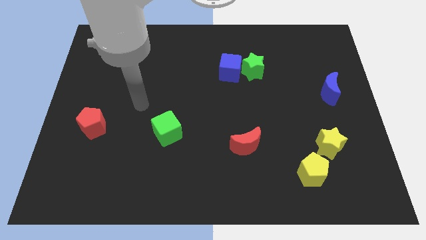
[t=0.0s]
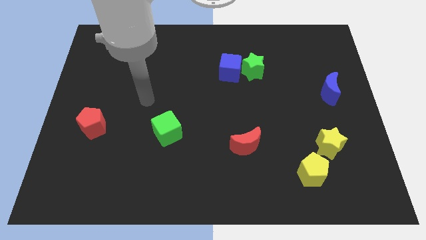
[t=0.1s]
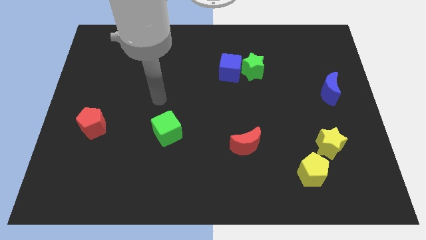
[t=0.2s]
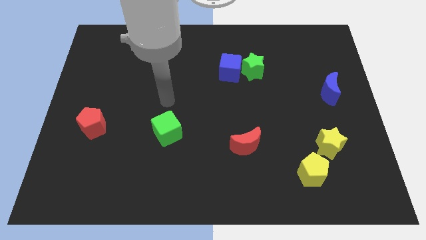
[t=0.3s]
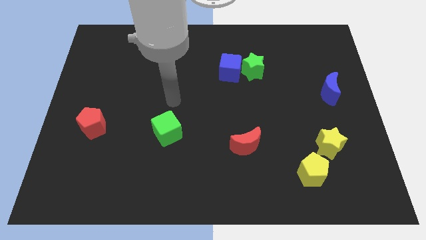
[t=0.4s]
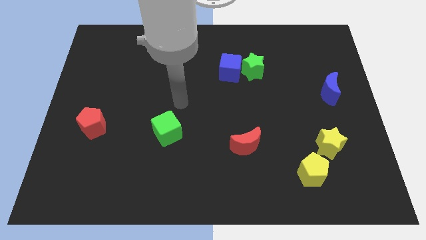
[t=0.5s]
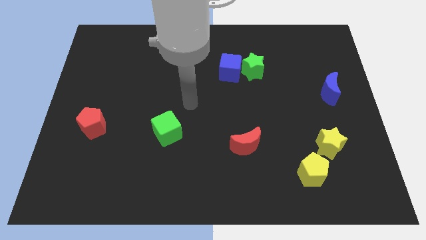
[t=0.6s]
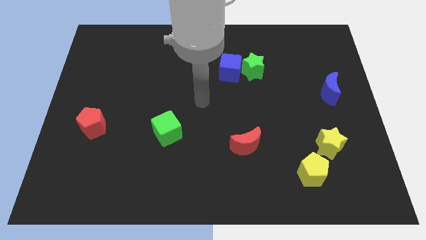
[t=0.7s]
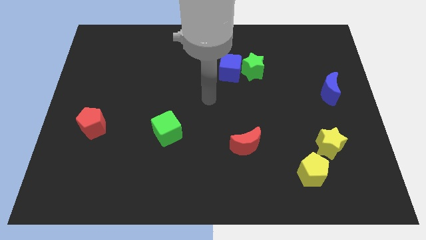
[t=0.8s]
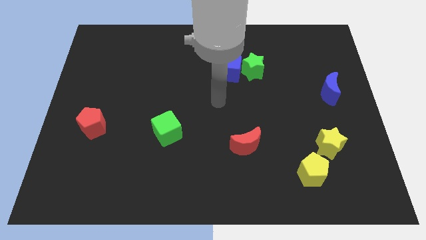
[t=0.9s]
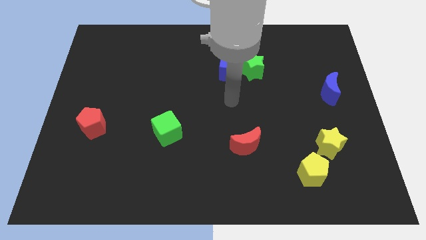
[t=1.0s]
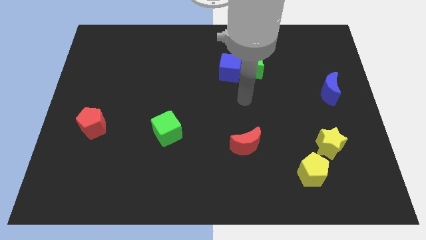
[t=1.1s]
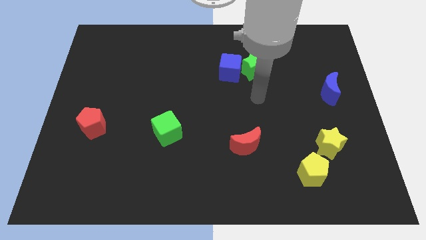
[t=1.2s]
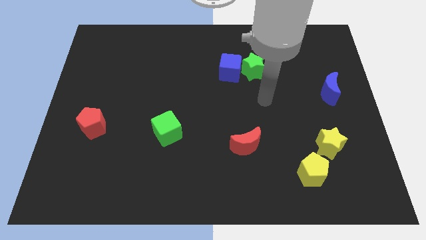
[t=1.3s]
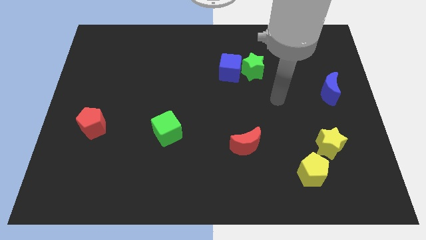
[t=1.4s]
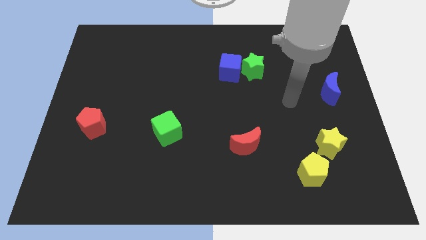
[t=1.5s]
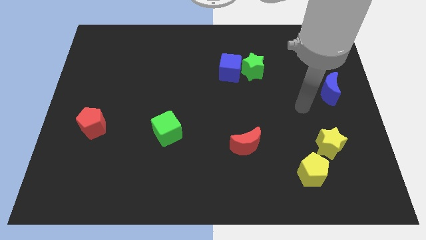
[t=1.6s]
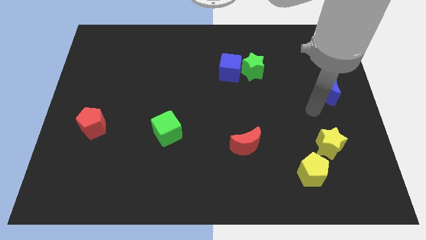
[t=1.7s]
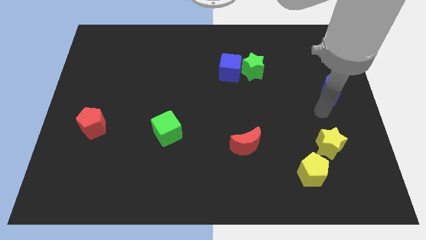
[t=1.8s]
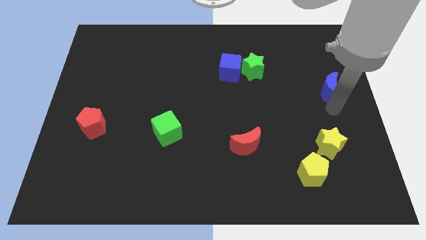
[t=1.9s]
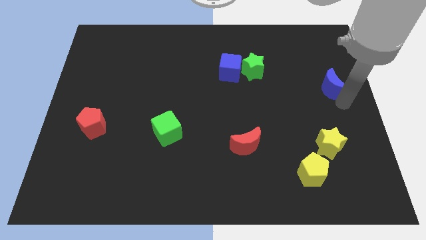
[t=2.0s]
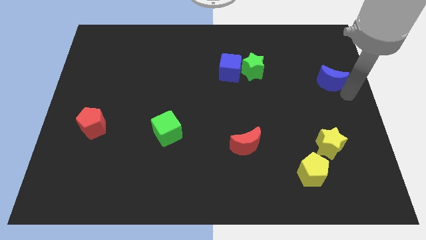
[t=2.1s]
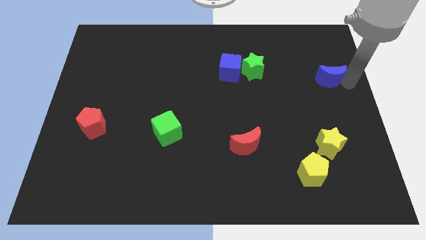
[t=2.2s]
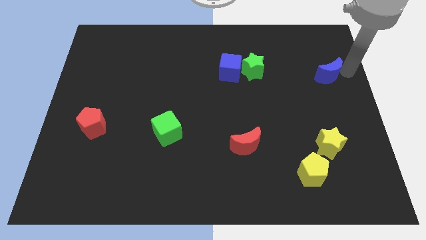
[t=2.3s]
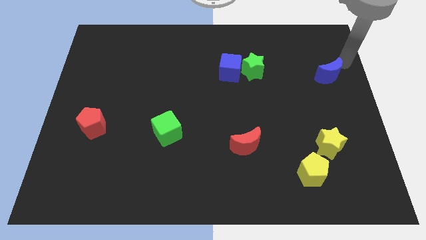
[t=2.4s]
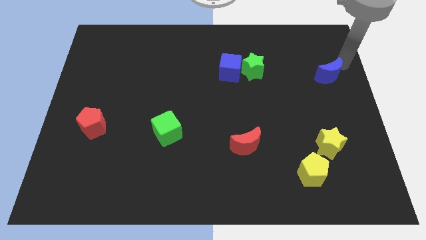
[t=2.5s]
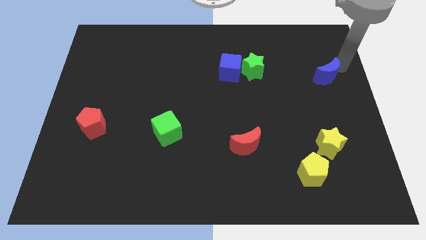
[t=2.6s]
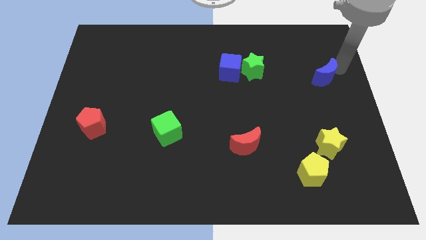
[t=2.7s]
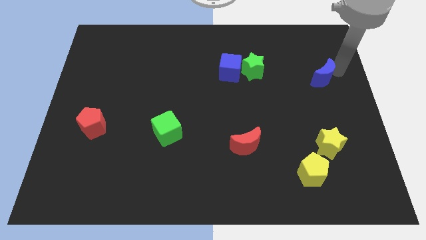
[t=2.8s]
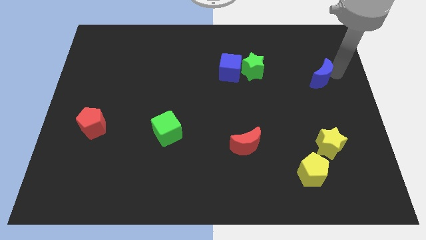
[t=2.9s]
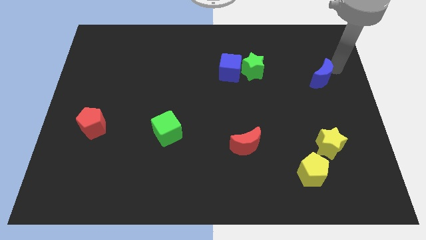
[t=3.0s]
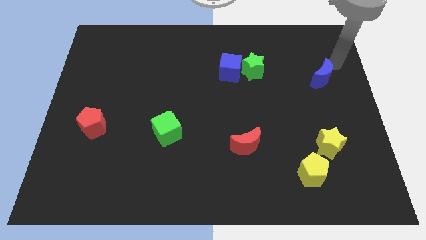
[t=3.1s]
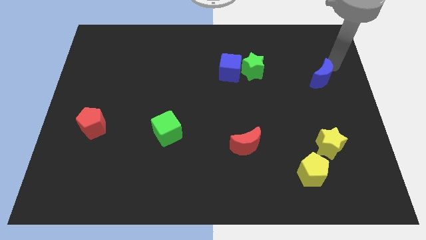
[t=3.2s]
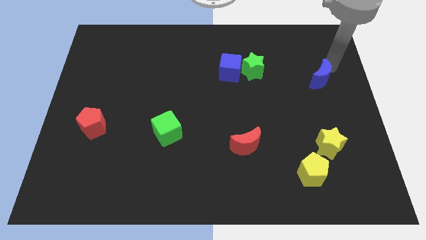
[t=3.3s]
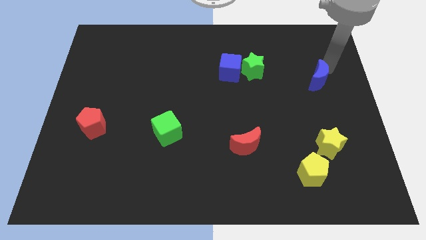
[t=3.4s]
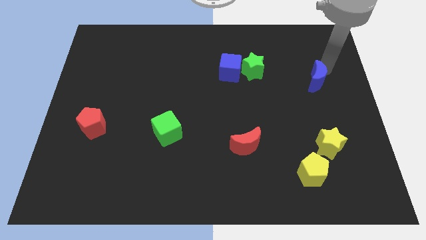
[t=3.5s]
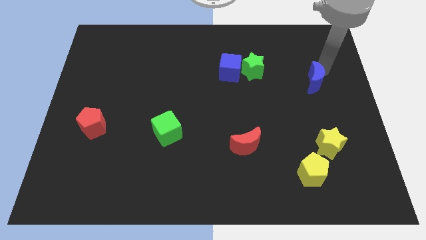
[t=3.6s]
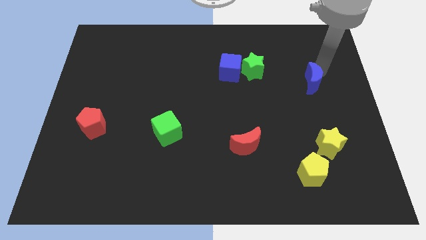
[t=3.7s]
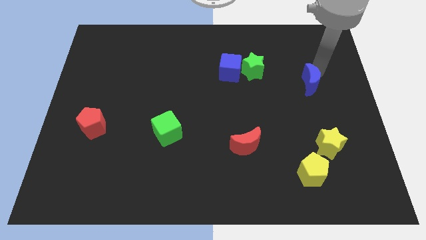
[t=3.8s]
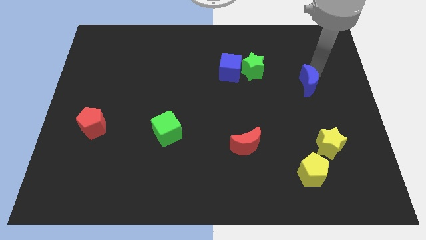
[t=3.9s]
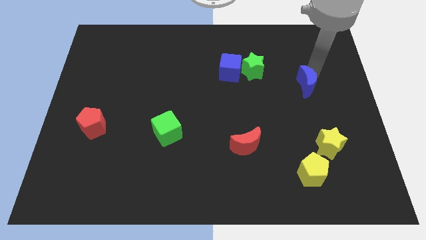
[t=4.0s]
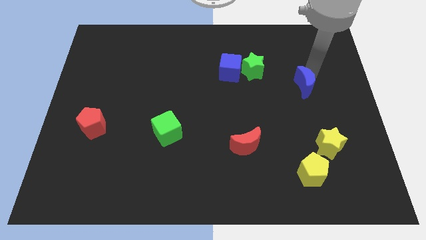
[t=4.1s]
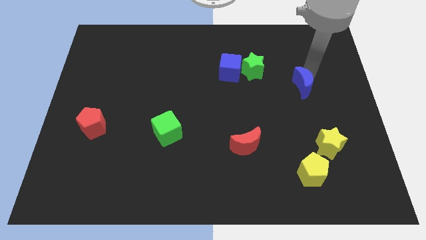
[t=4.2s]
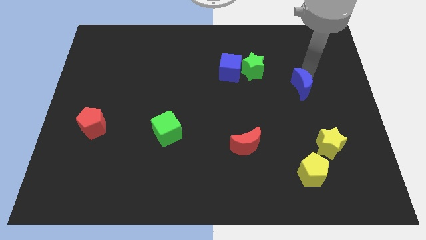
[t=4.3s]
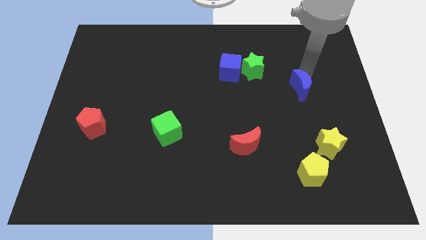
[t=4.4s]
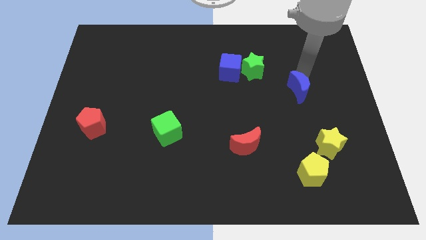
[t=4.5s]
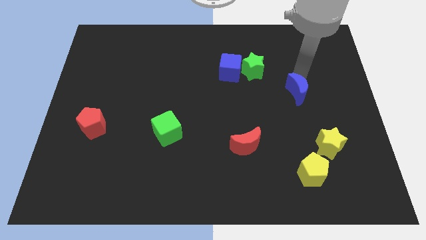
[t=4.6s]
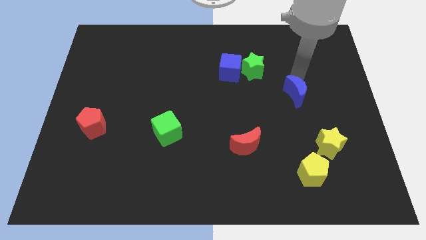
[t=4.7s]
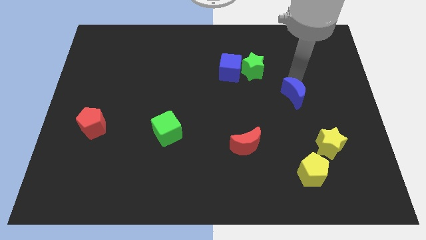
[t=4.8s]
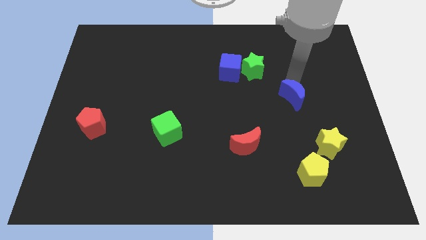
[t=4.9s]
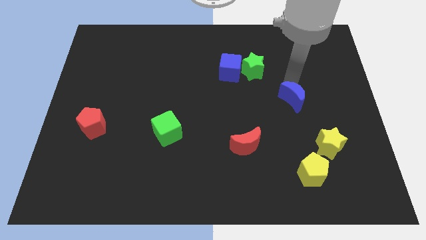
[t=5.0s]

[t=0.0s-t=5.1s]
push the blue moon a little down and to the left

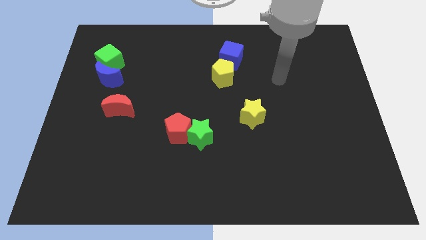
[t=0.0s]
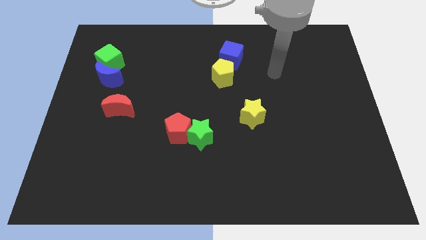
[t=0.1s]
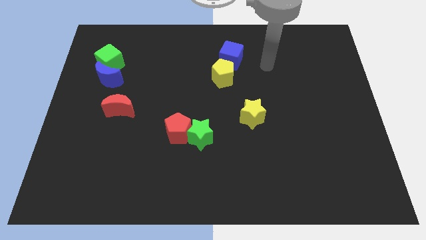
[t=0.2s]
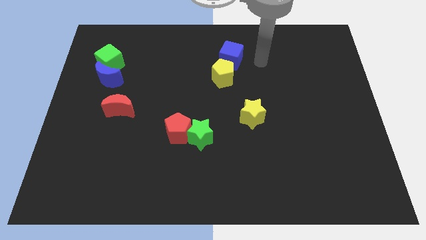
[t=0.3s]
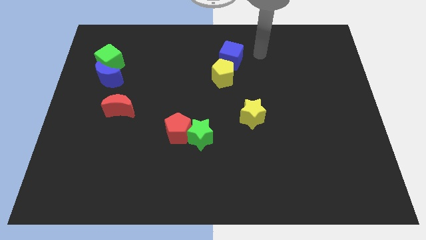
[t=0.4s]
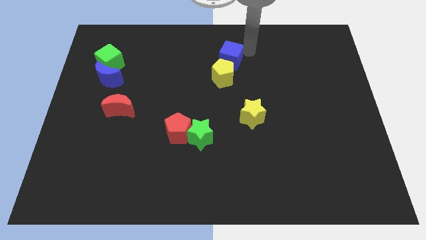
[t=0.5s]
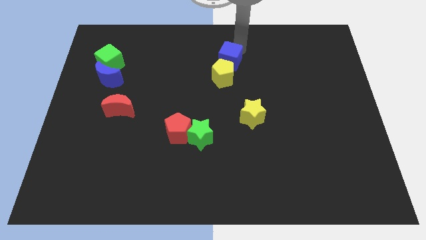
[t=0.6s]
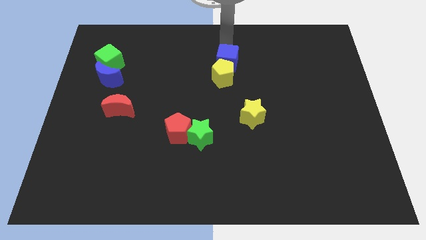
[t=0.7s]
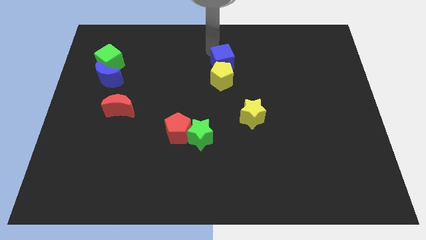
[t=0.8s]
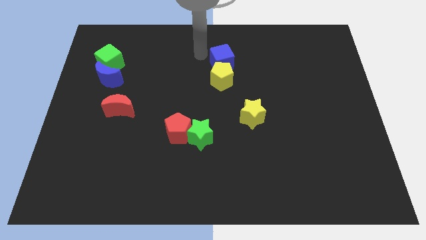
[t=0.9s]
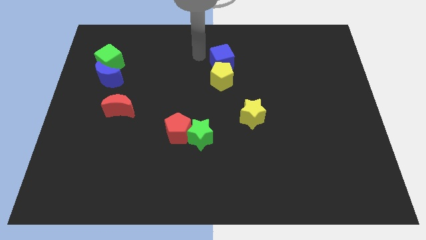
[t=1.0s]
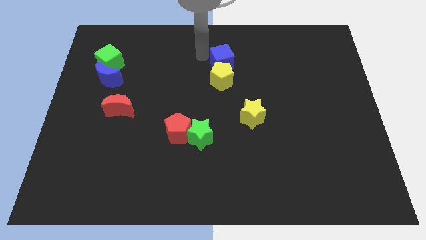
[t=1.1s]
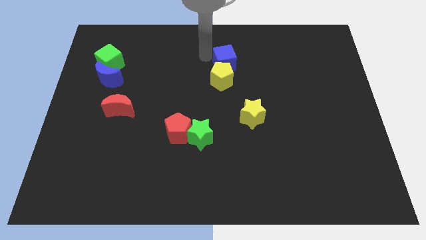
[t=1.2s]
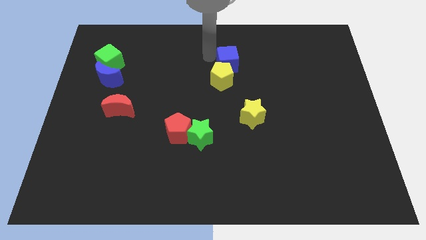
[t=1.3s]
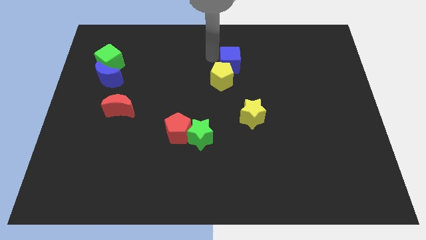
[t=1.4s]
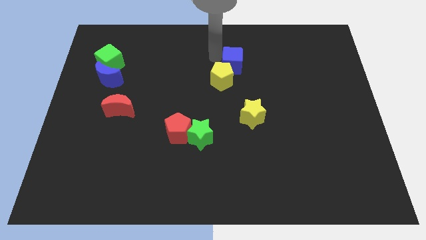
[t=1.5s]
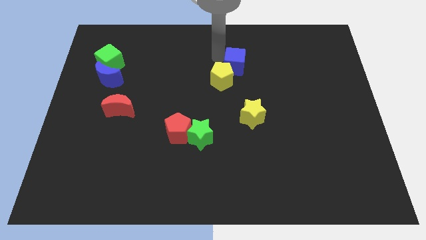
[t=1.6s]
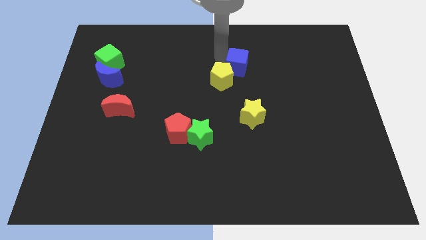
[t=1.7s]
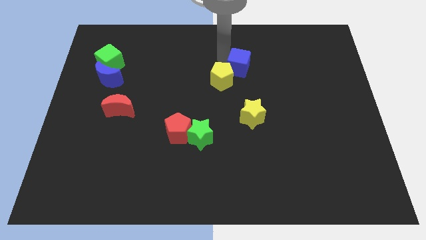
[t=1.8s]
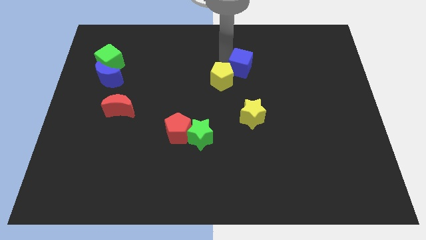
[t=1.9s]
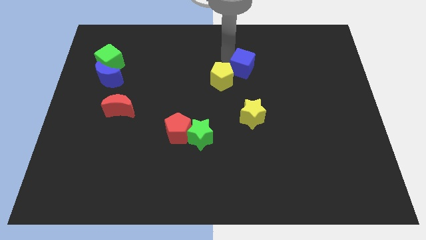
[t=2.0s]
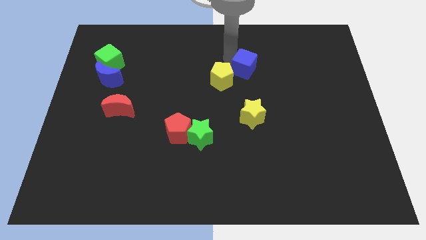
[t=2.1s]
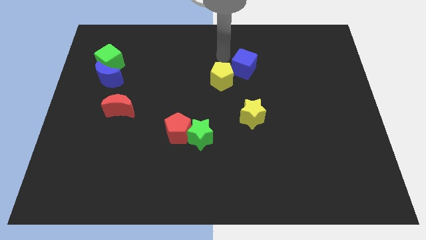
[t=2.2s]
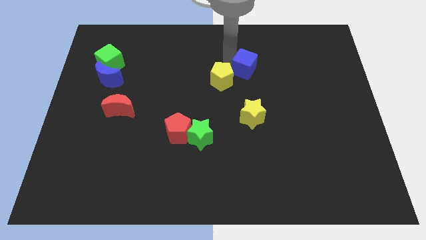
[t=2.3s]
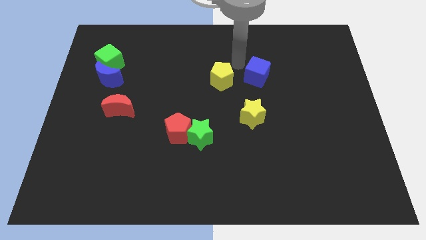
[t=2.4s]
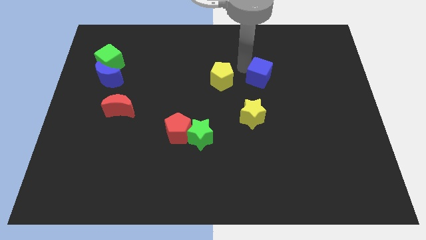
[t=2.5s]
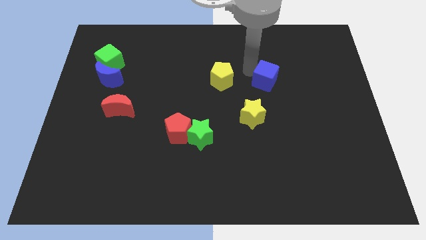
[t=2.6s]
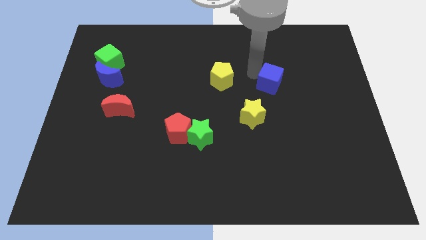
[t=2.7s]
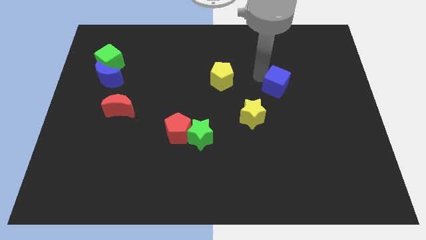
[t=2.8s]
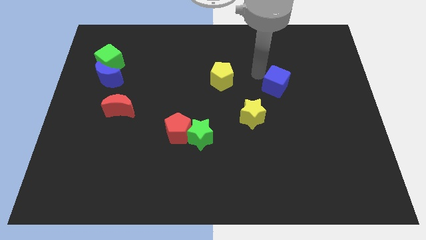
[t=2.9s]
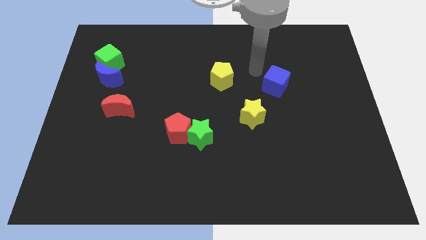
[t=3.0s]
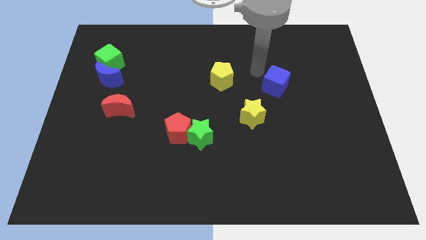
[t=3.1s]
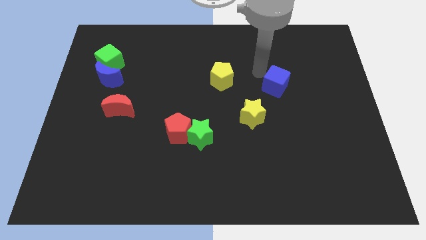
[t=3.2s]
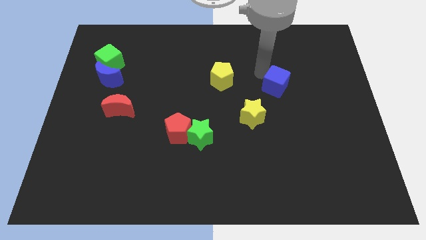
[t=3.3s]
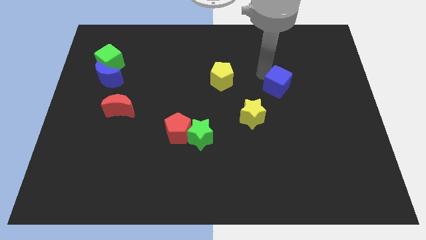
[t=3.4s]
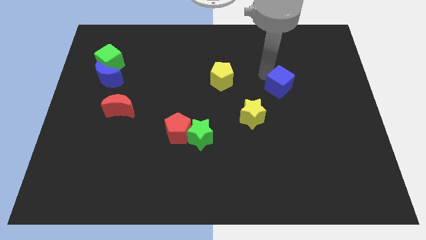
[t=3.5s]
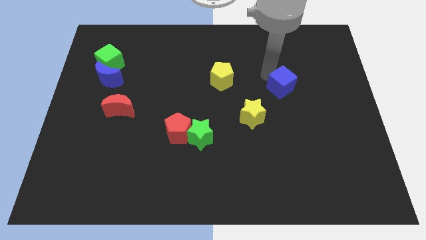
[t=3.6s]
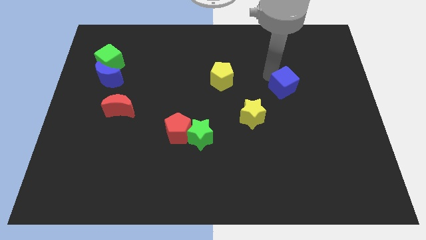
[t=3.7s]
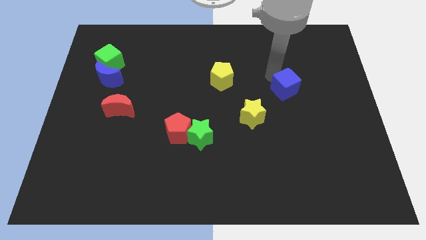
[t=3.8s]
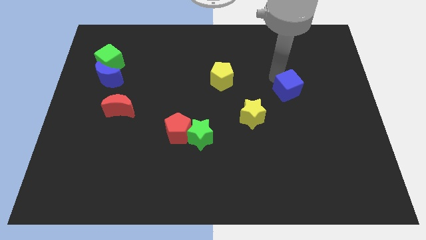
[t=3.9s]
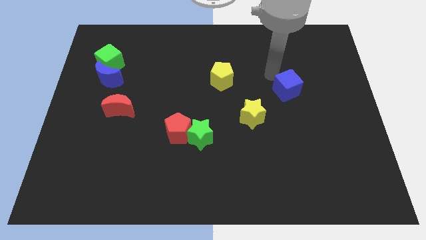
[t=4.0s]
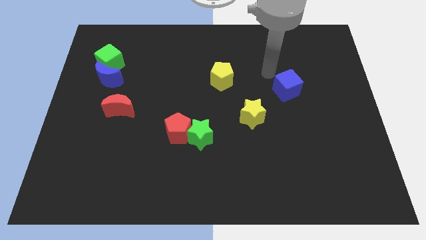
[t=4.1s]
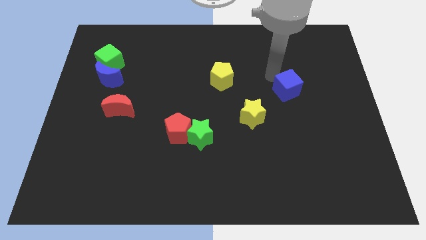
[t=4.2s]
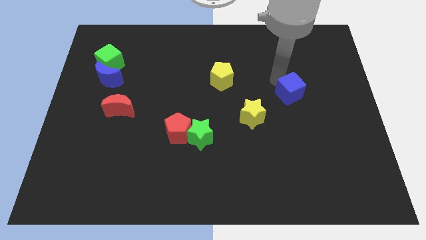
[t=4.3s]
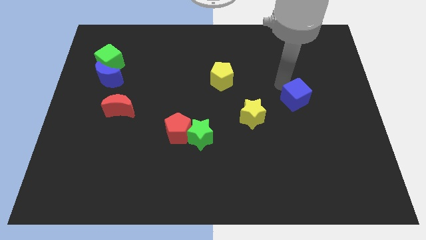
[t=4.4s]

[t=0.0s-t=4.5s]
push the blue cube downwards and to the right
